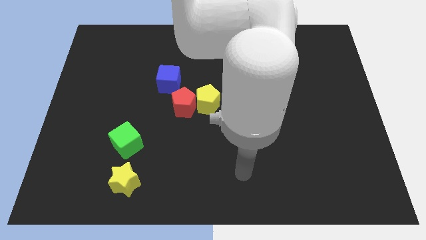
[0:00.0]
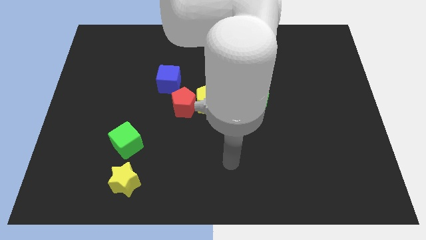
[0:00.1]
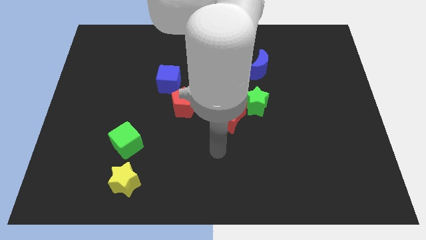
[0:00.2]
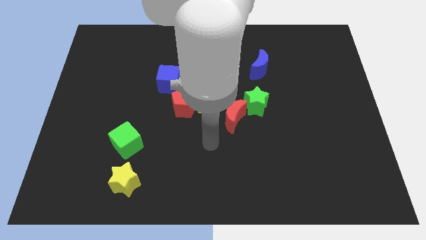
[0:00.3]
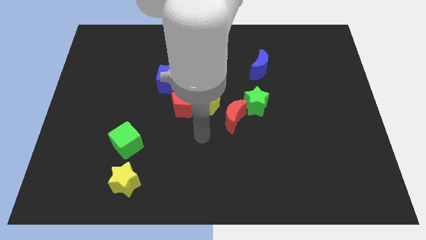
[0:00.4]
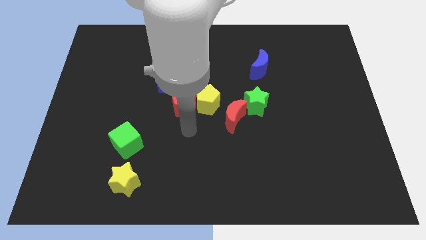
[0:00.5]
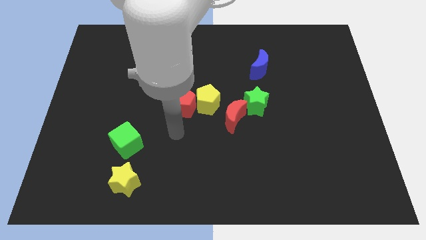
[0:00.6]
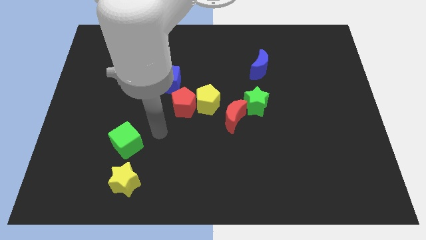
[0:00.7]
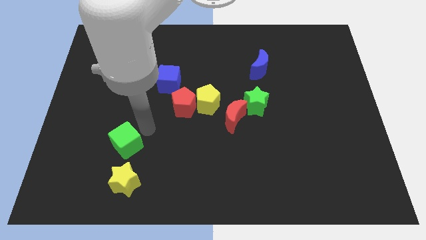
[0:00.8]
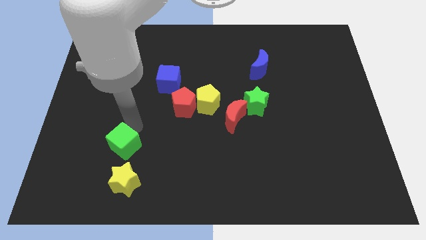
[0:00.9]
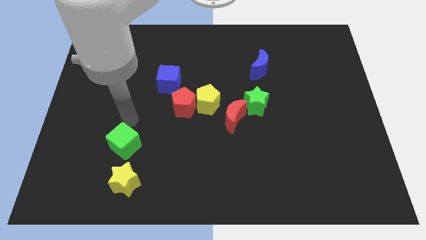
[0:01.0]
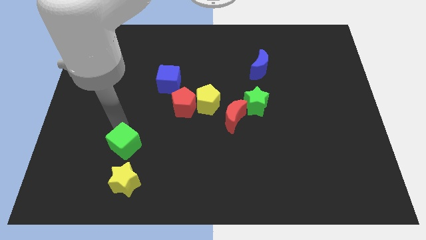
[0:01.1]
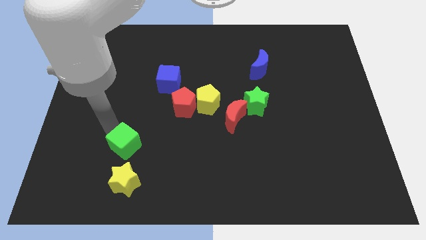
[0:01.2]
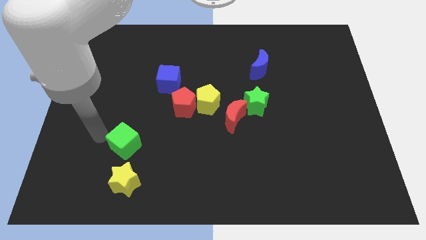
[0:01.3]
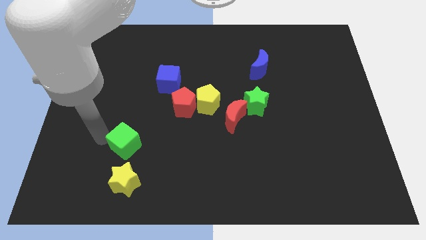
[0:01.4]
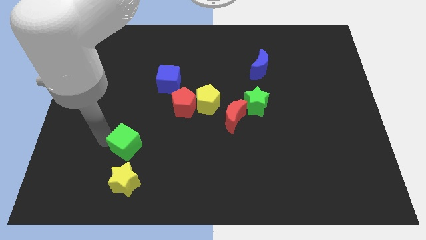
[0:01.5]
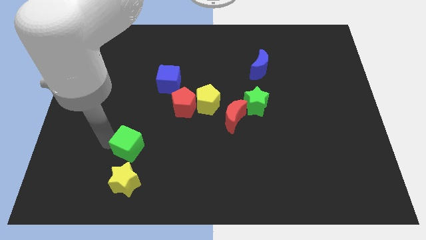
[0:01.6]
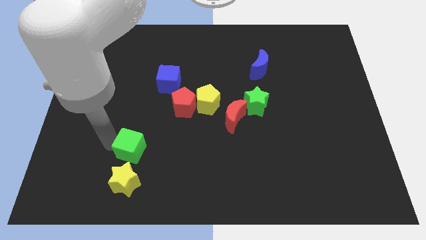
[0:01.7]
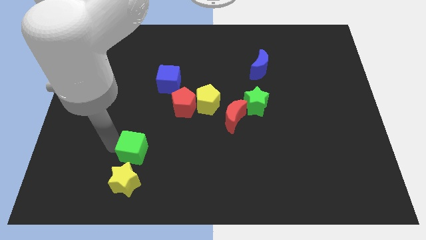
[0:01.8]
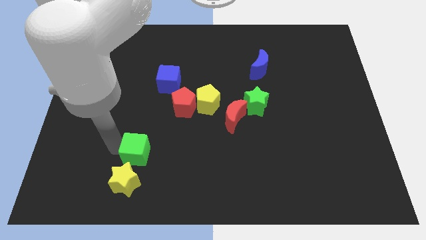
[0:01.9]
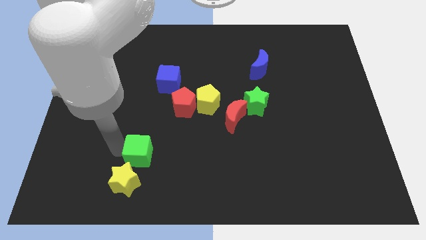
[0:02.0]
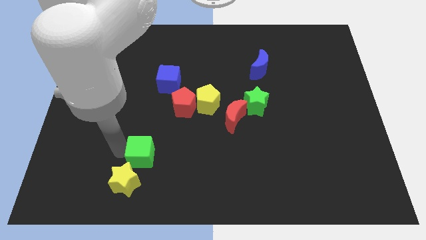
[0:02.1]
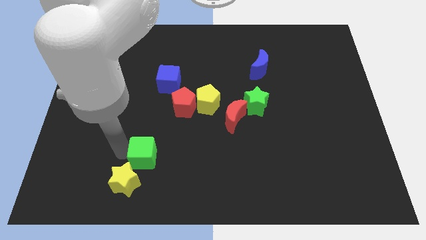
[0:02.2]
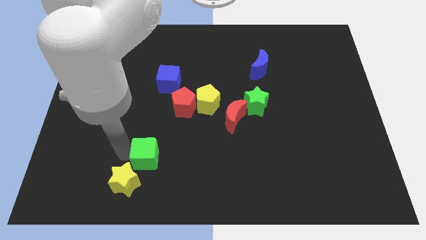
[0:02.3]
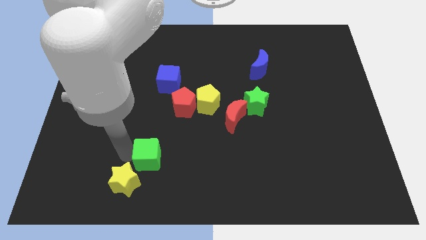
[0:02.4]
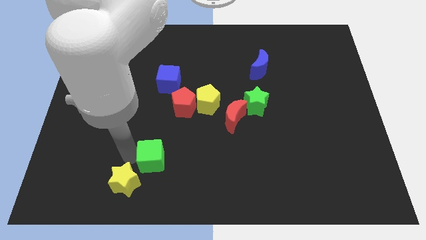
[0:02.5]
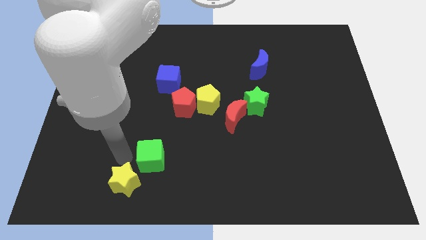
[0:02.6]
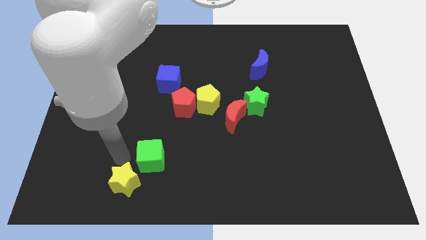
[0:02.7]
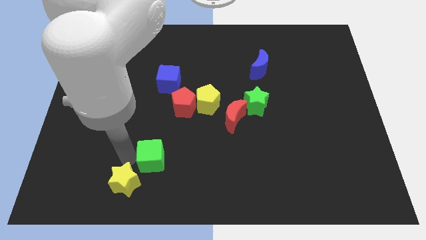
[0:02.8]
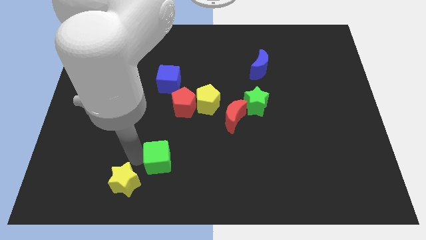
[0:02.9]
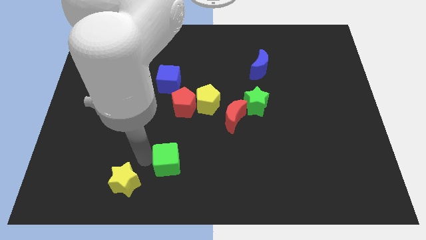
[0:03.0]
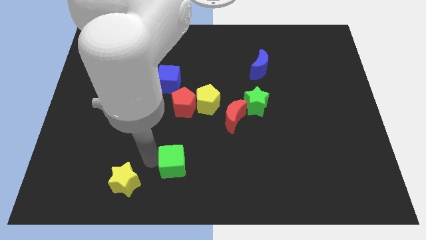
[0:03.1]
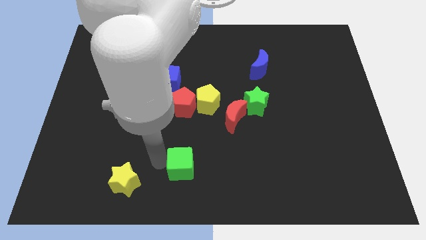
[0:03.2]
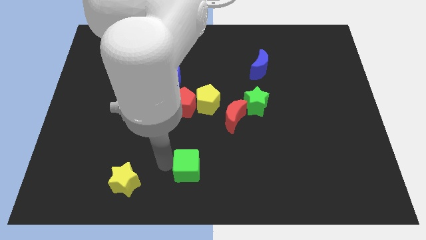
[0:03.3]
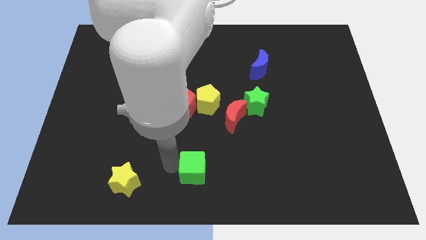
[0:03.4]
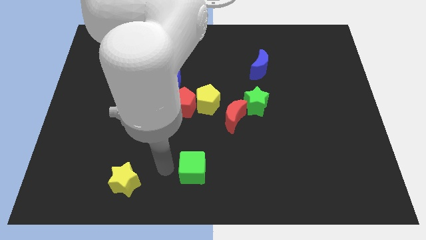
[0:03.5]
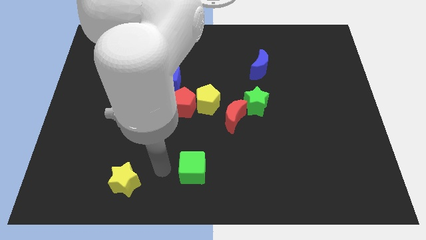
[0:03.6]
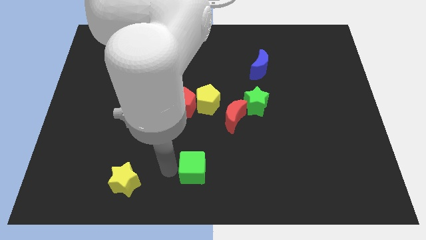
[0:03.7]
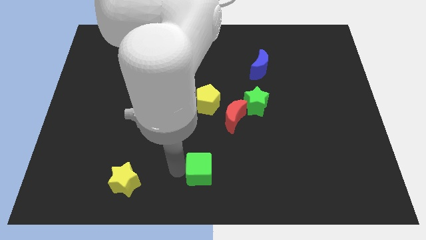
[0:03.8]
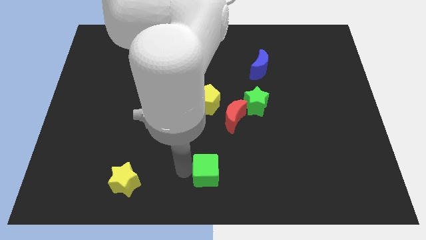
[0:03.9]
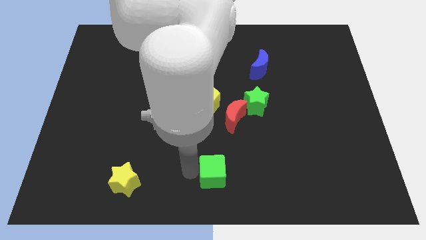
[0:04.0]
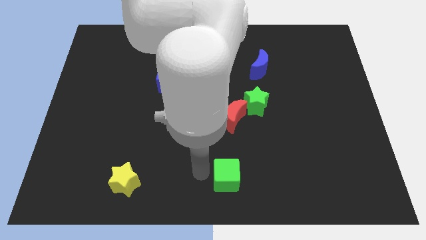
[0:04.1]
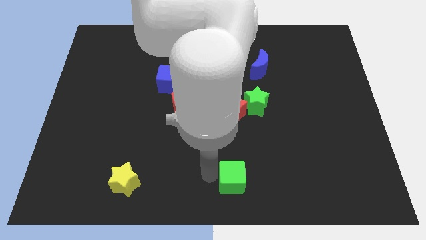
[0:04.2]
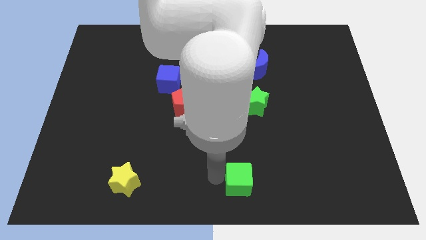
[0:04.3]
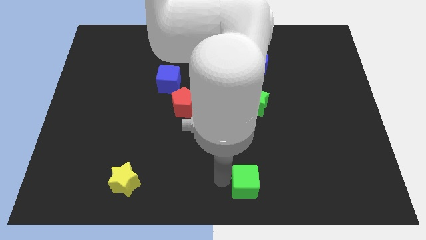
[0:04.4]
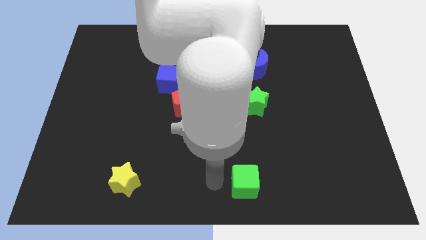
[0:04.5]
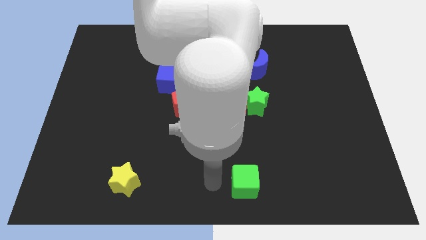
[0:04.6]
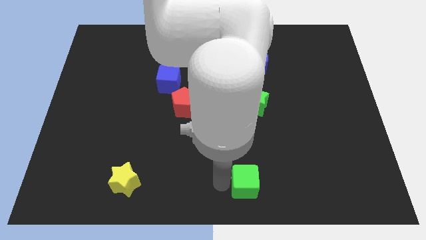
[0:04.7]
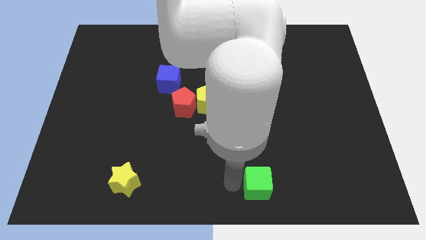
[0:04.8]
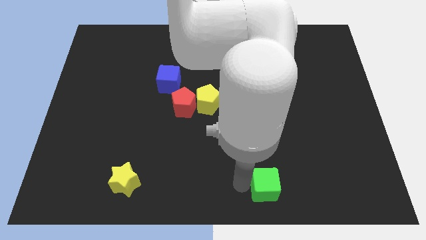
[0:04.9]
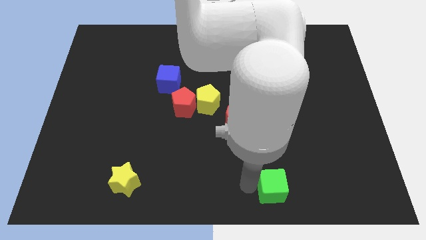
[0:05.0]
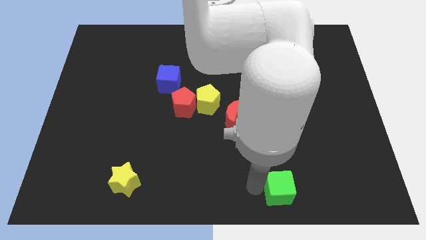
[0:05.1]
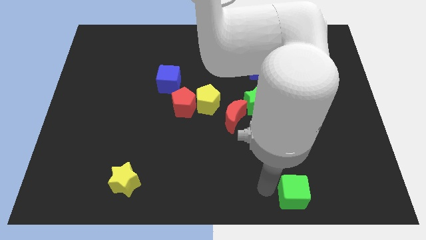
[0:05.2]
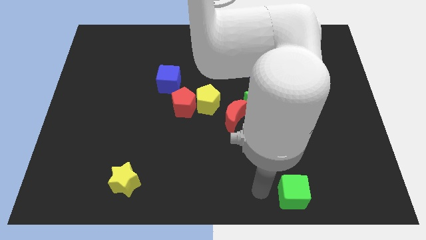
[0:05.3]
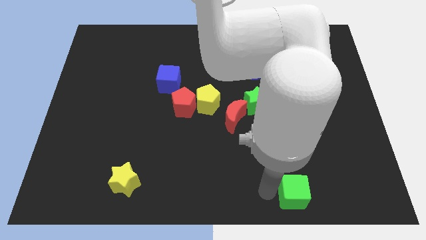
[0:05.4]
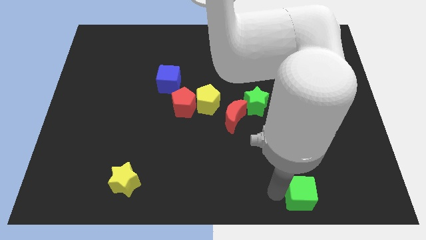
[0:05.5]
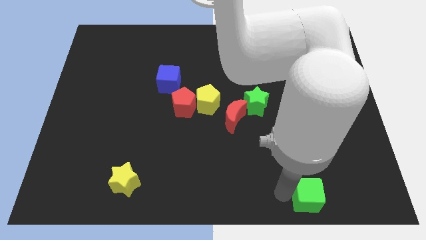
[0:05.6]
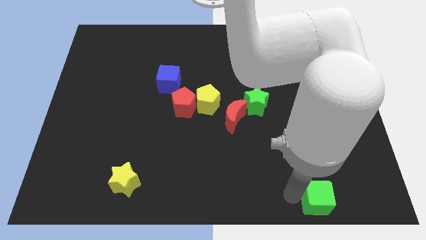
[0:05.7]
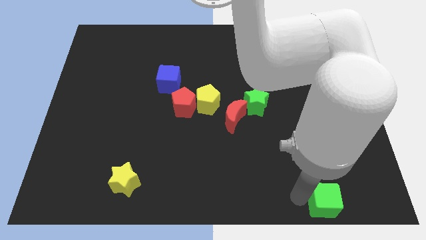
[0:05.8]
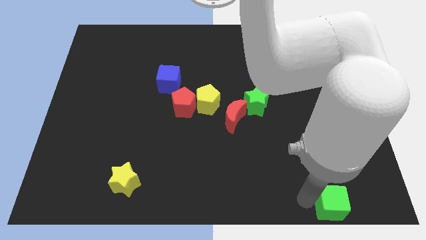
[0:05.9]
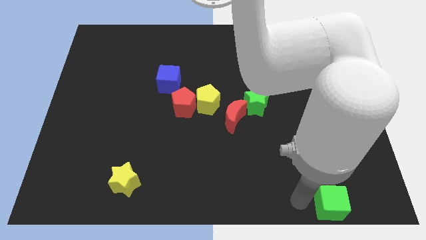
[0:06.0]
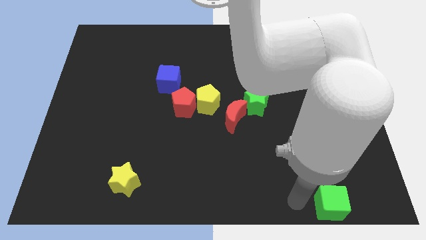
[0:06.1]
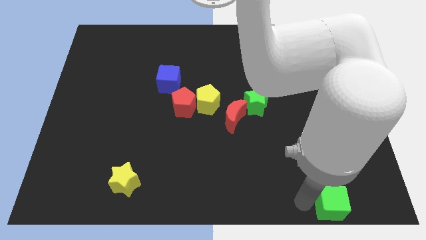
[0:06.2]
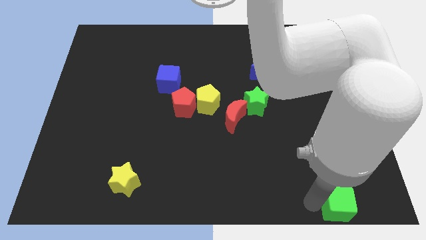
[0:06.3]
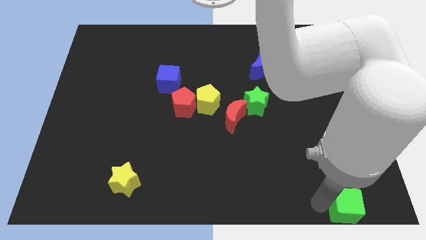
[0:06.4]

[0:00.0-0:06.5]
move the green cube to the lower right corner
